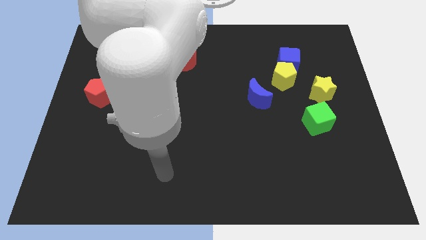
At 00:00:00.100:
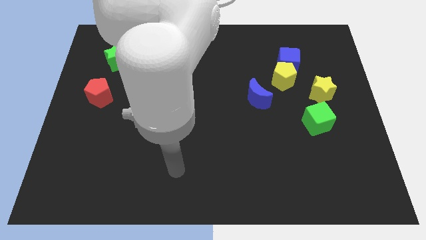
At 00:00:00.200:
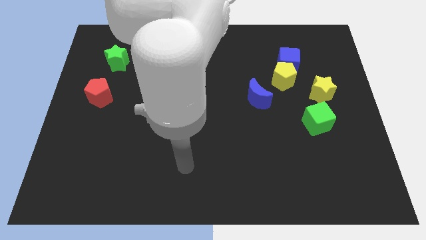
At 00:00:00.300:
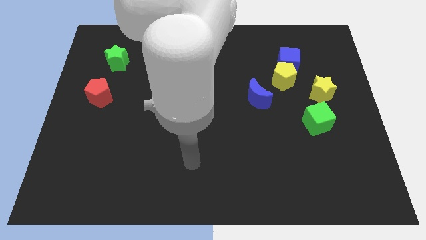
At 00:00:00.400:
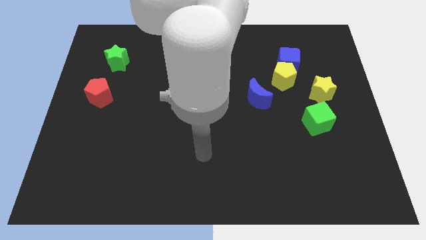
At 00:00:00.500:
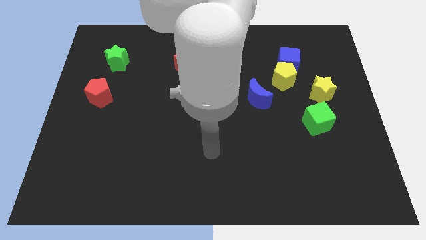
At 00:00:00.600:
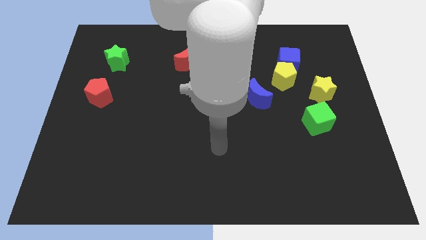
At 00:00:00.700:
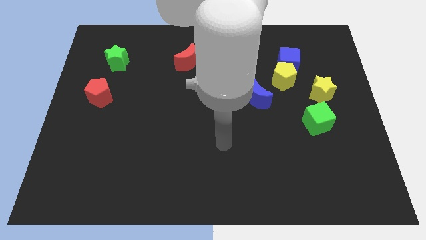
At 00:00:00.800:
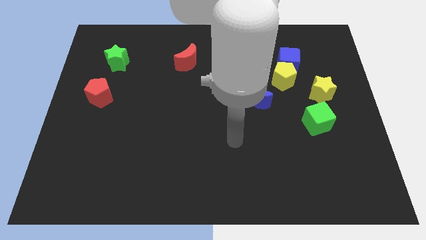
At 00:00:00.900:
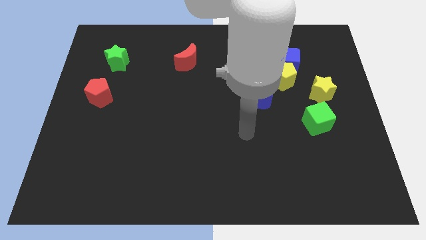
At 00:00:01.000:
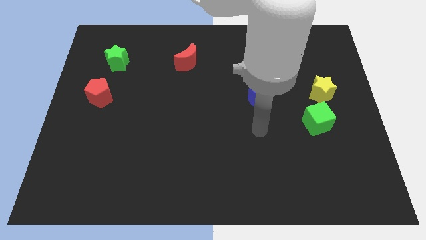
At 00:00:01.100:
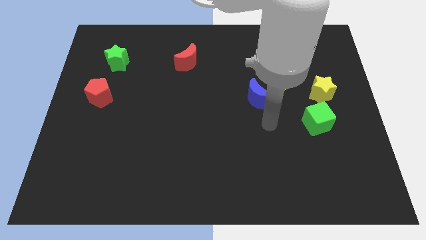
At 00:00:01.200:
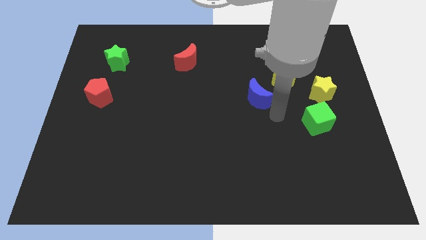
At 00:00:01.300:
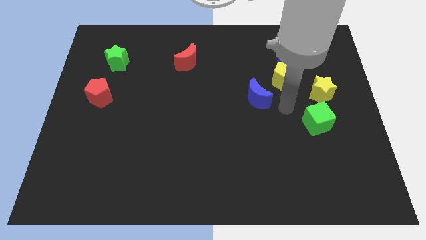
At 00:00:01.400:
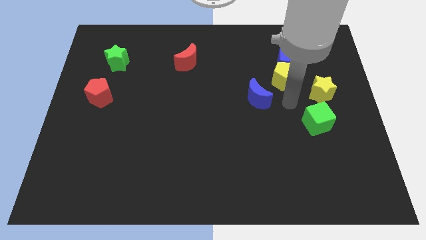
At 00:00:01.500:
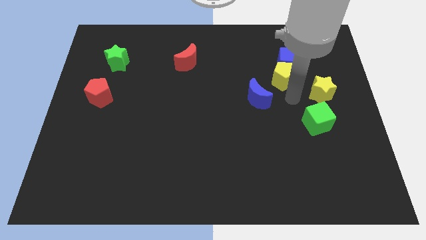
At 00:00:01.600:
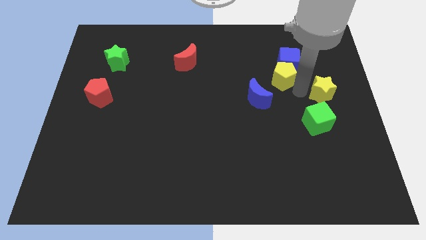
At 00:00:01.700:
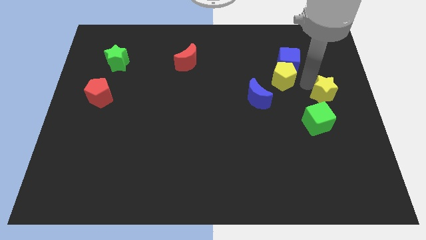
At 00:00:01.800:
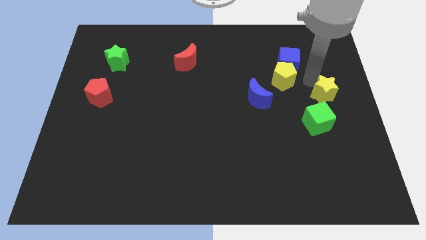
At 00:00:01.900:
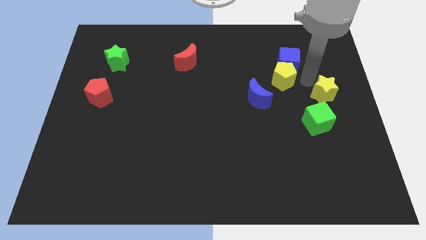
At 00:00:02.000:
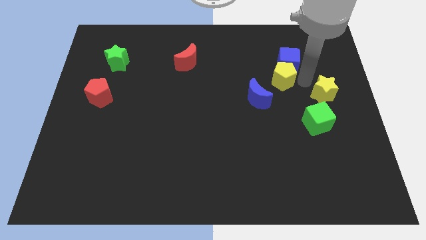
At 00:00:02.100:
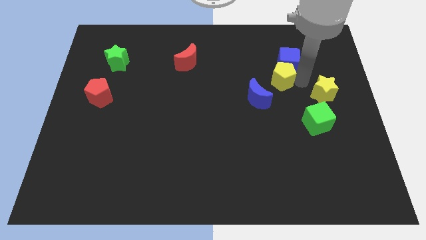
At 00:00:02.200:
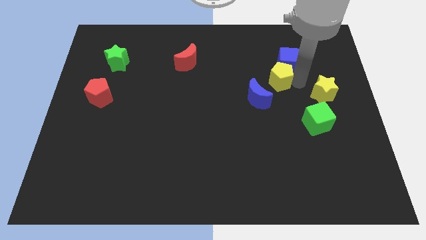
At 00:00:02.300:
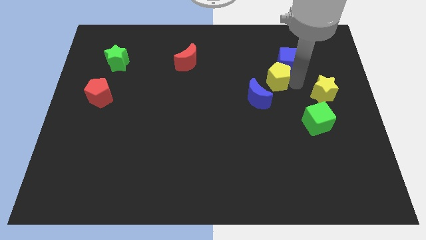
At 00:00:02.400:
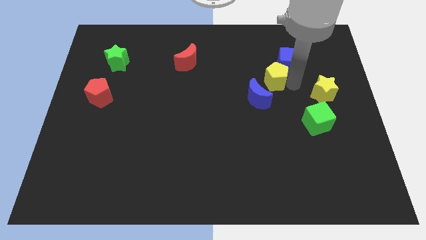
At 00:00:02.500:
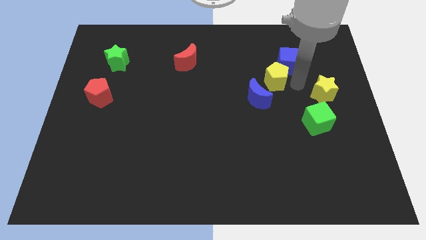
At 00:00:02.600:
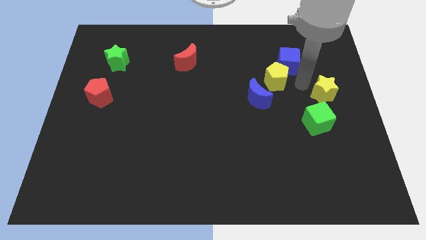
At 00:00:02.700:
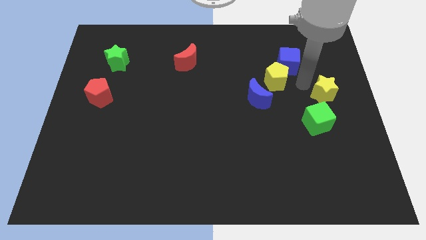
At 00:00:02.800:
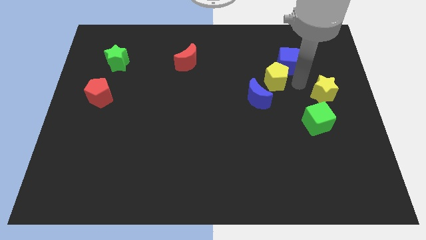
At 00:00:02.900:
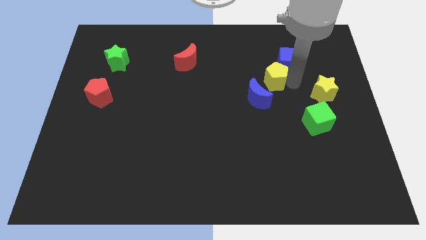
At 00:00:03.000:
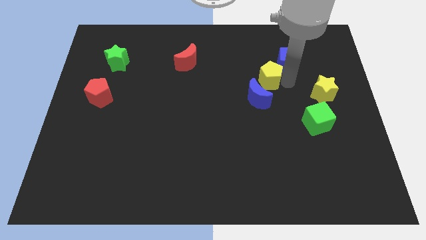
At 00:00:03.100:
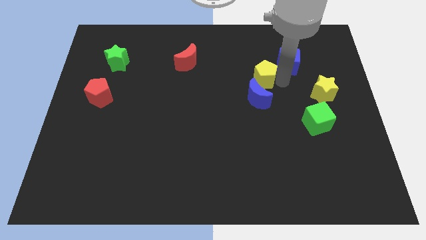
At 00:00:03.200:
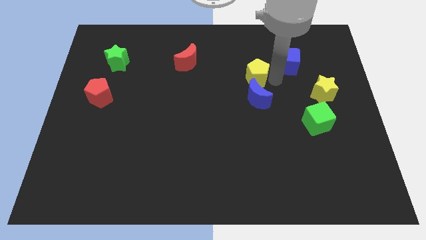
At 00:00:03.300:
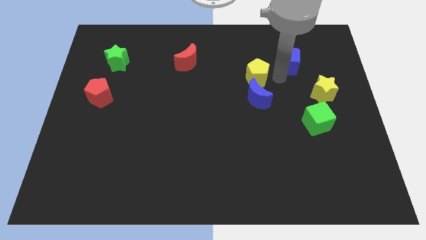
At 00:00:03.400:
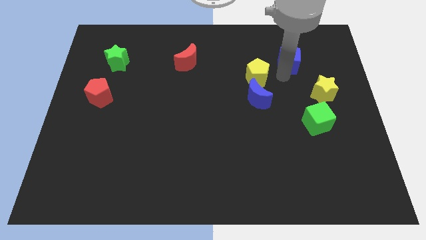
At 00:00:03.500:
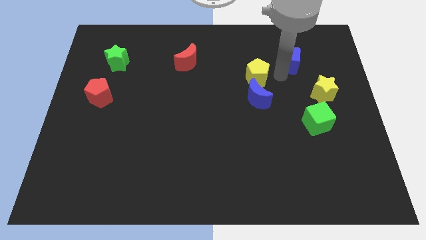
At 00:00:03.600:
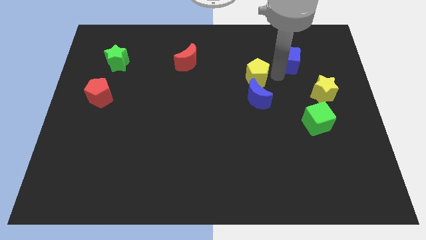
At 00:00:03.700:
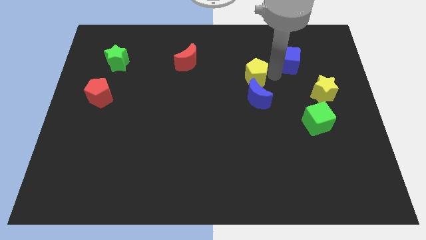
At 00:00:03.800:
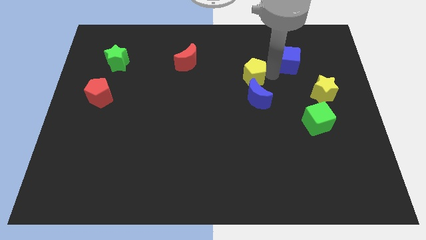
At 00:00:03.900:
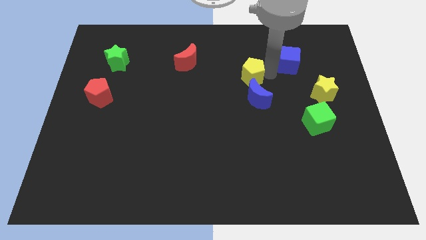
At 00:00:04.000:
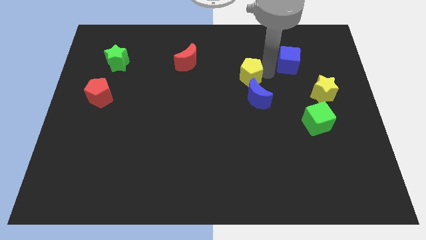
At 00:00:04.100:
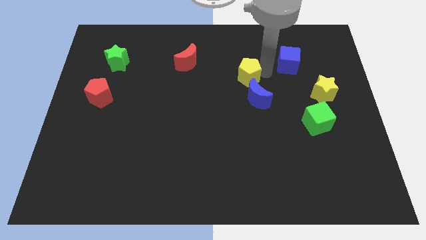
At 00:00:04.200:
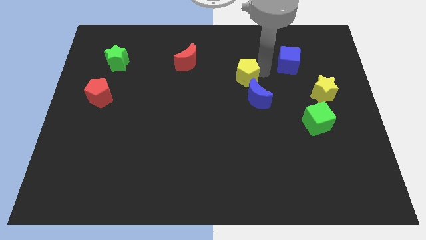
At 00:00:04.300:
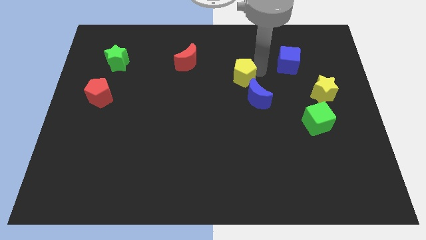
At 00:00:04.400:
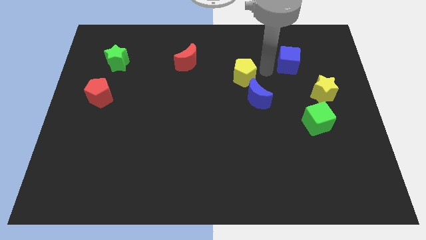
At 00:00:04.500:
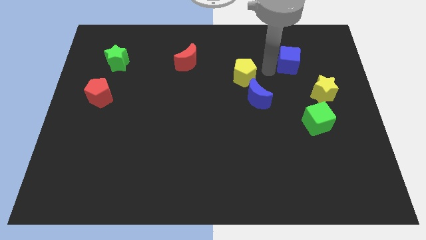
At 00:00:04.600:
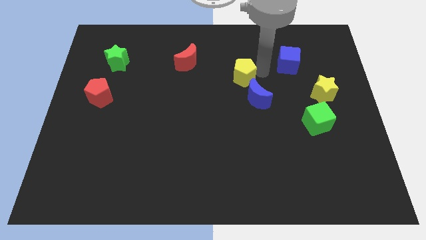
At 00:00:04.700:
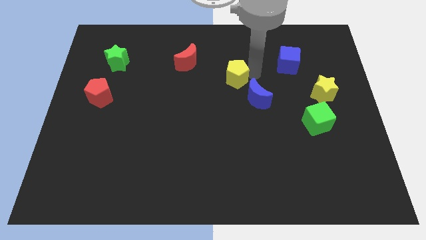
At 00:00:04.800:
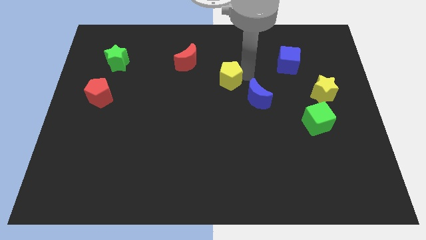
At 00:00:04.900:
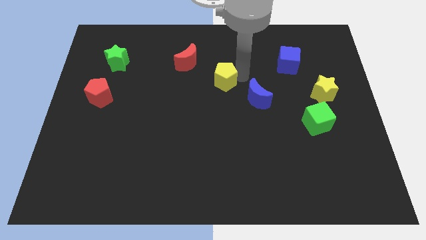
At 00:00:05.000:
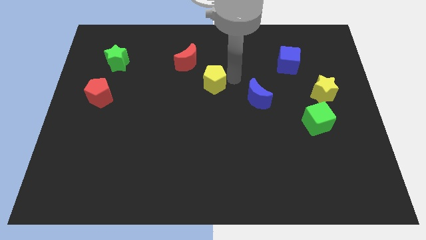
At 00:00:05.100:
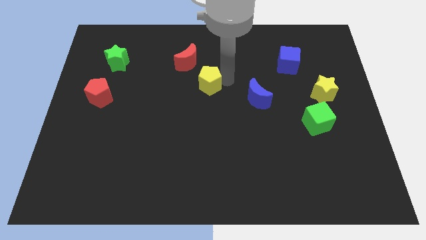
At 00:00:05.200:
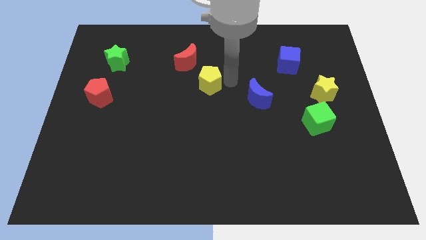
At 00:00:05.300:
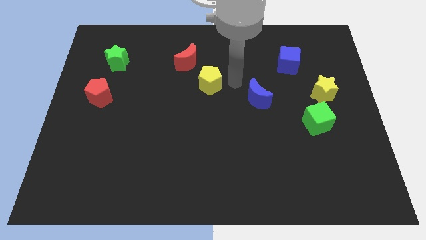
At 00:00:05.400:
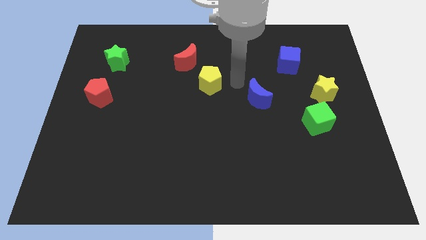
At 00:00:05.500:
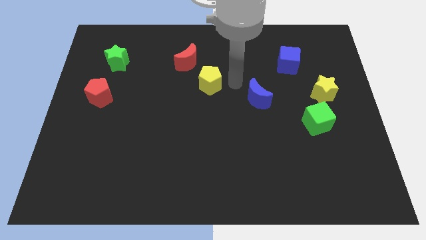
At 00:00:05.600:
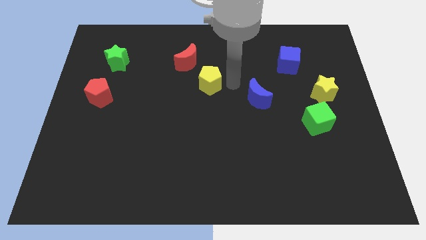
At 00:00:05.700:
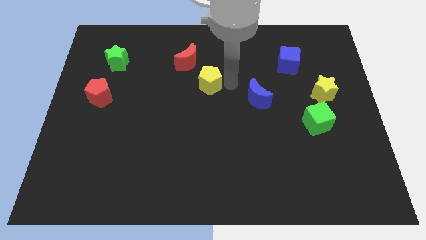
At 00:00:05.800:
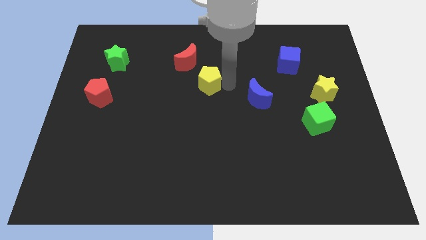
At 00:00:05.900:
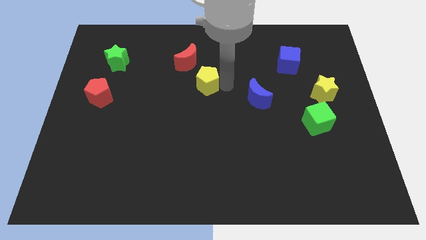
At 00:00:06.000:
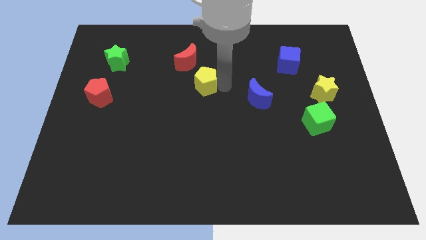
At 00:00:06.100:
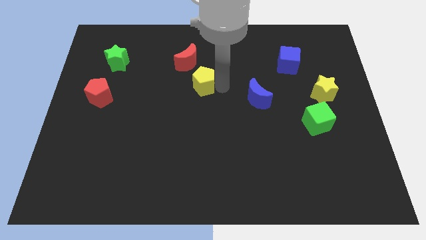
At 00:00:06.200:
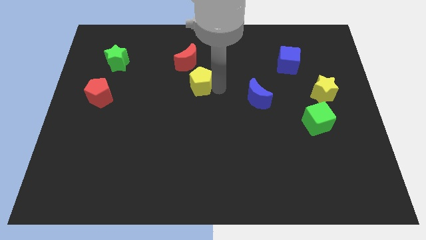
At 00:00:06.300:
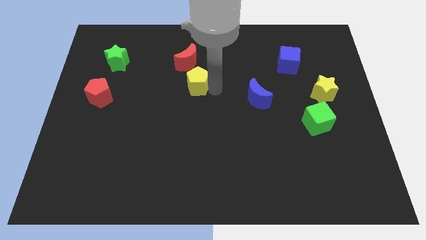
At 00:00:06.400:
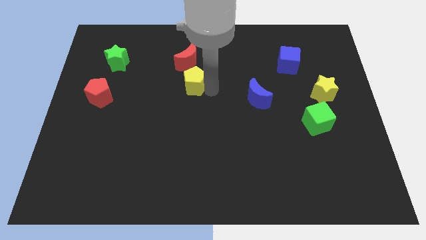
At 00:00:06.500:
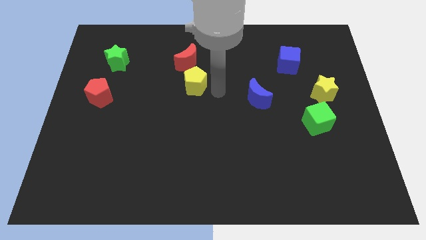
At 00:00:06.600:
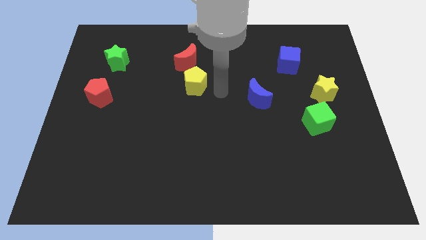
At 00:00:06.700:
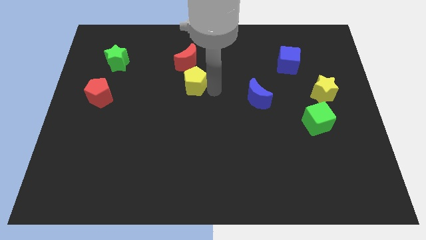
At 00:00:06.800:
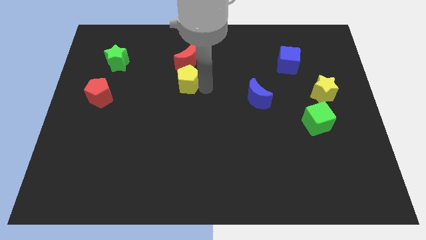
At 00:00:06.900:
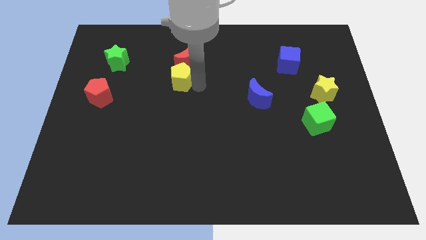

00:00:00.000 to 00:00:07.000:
move the yellow pentagon diagonally down and to the left of the red moon
